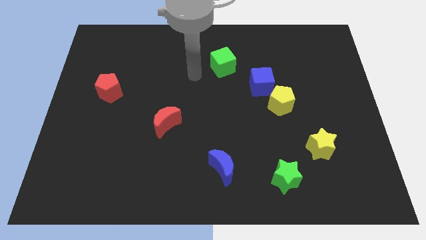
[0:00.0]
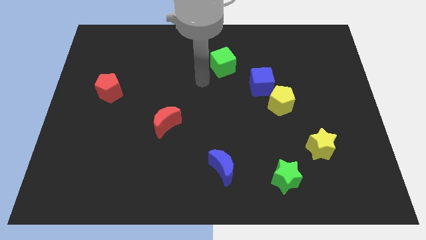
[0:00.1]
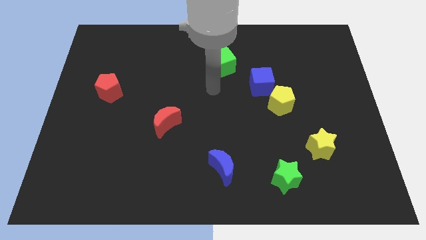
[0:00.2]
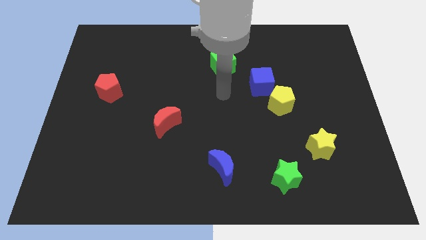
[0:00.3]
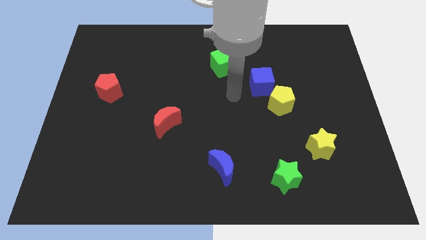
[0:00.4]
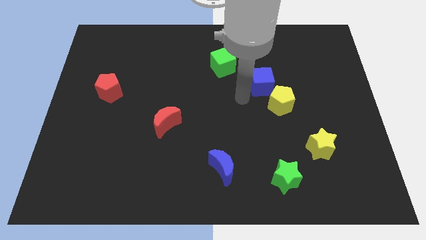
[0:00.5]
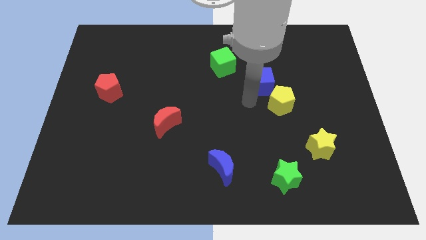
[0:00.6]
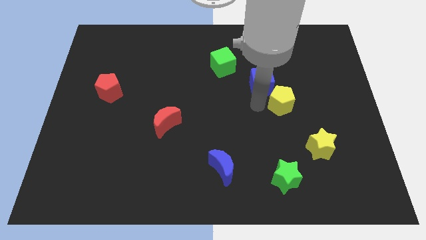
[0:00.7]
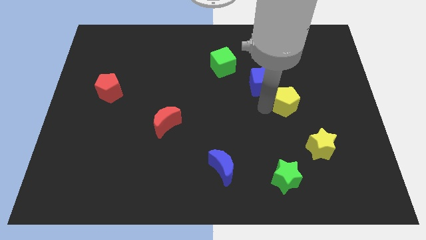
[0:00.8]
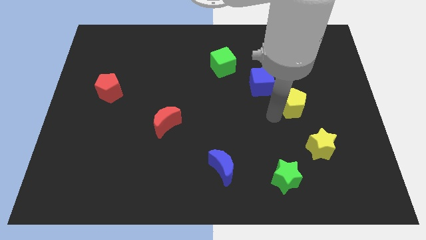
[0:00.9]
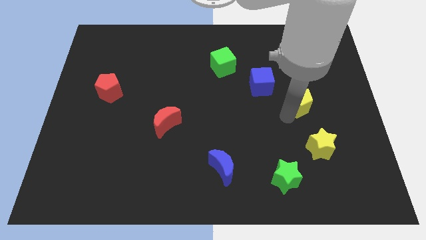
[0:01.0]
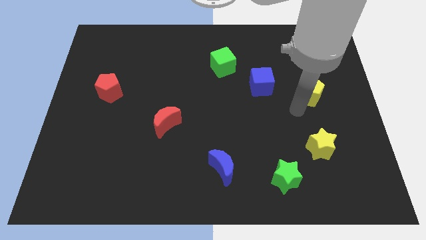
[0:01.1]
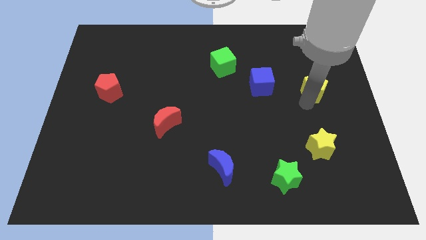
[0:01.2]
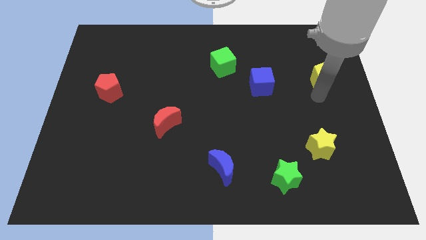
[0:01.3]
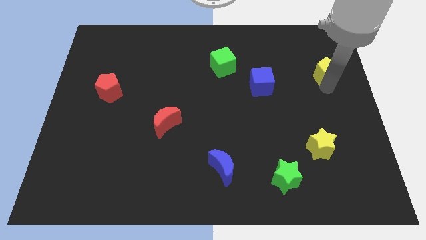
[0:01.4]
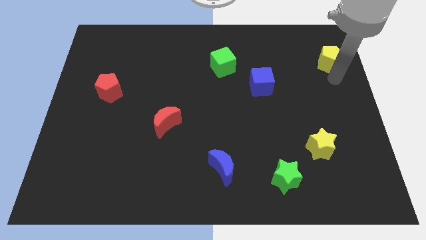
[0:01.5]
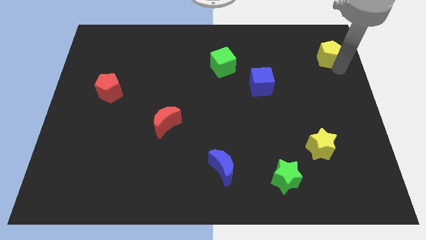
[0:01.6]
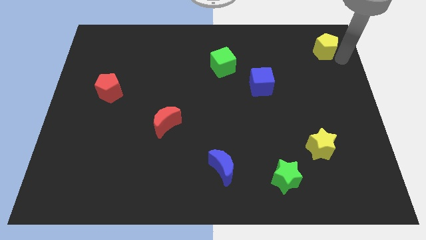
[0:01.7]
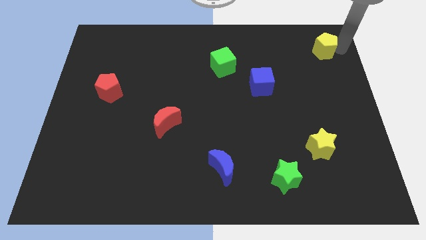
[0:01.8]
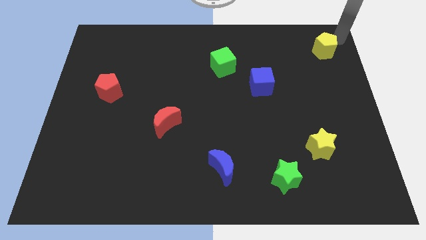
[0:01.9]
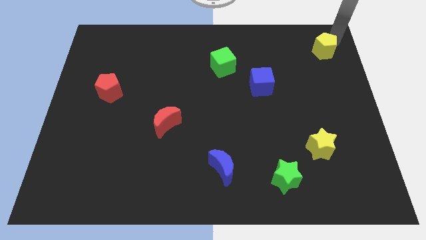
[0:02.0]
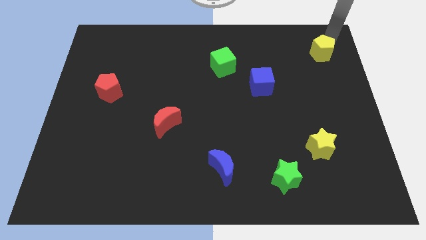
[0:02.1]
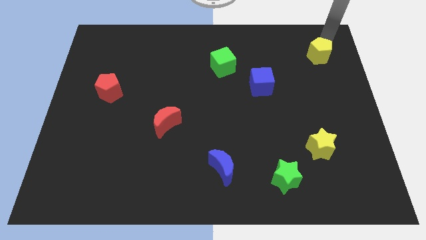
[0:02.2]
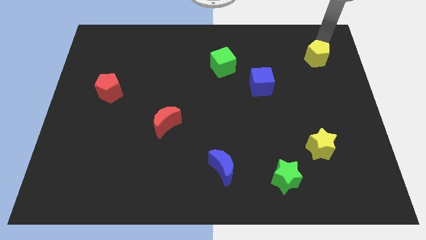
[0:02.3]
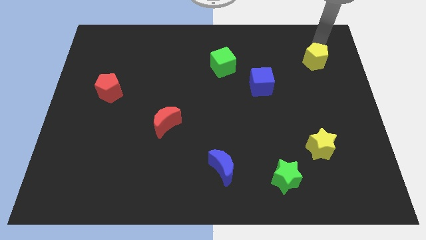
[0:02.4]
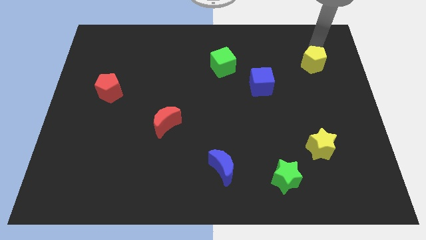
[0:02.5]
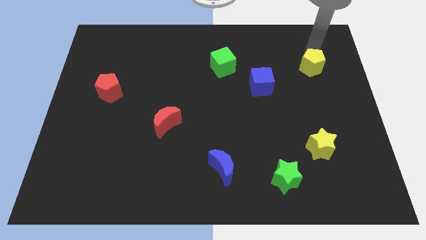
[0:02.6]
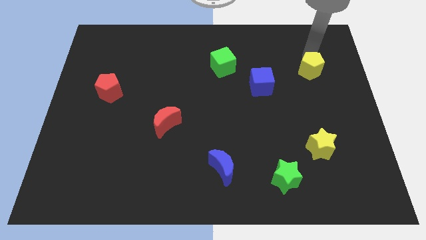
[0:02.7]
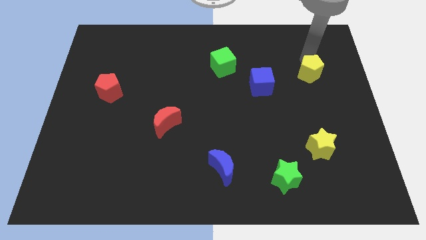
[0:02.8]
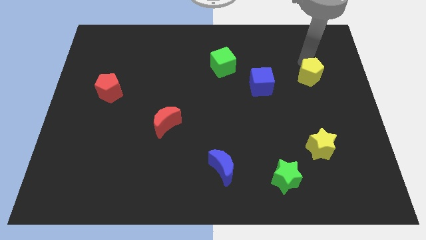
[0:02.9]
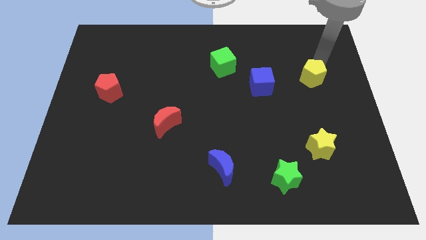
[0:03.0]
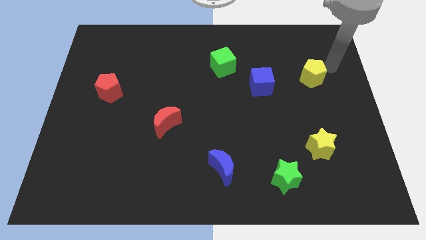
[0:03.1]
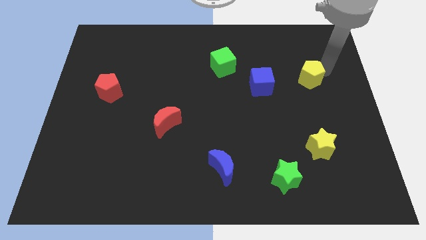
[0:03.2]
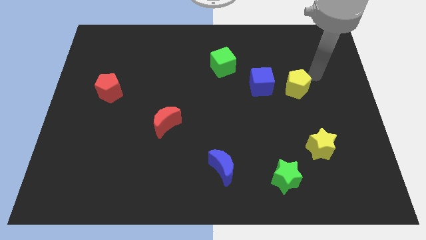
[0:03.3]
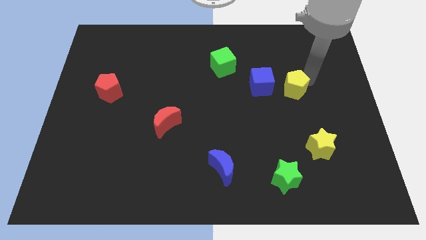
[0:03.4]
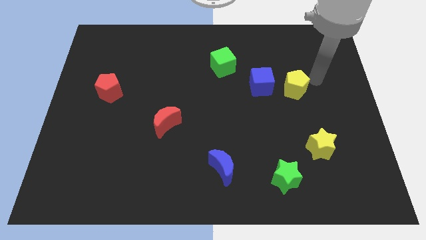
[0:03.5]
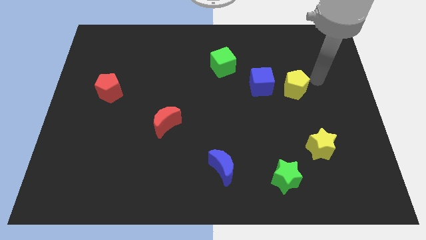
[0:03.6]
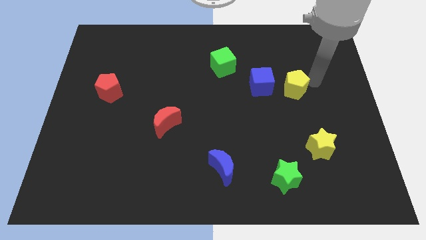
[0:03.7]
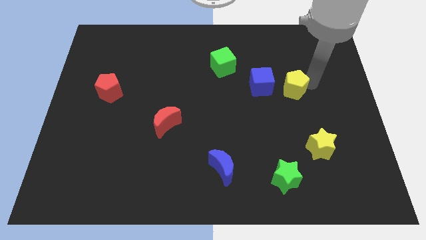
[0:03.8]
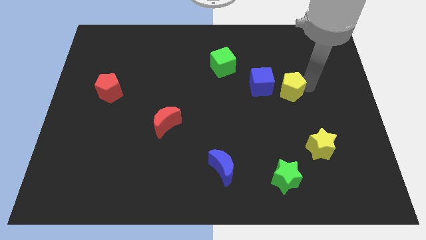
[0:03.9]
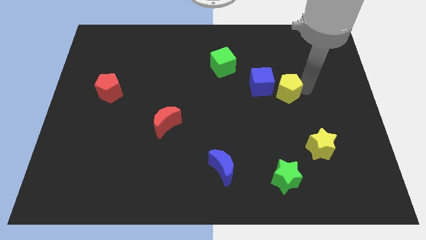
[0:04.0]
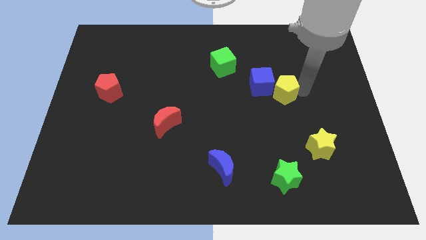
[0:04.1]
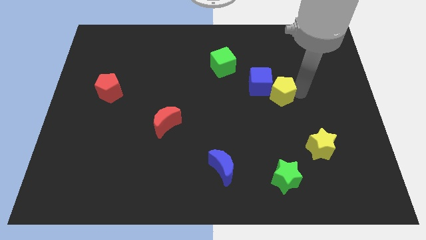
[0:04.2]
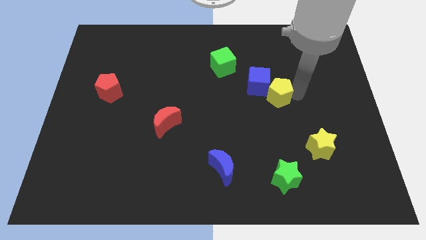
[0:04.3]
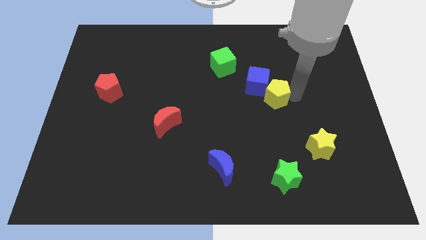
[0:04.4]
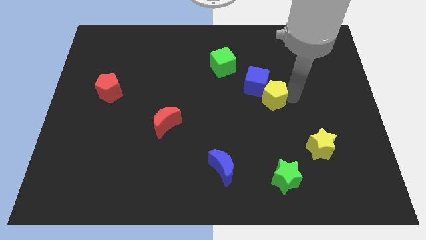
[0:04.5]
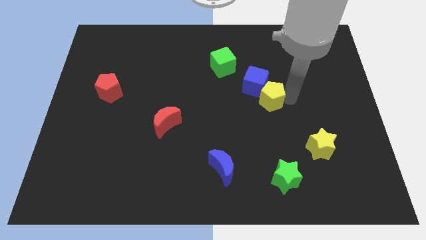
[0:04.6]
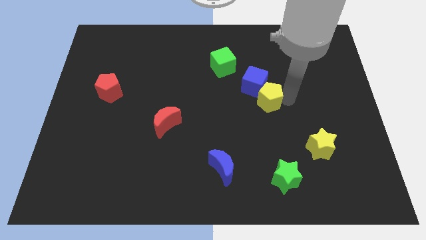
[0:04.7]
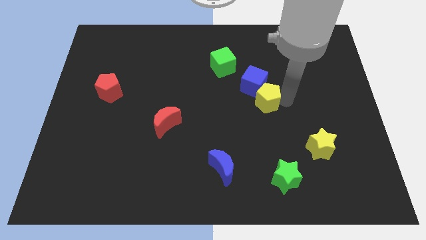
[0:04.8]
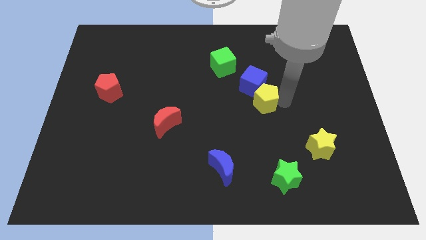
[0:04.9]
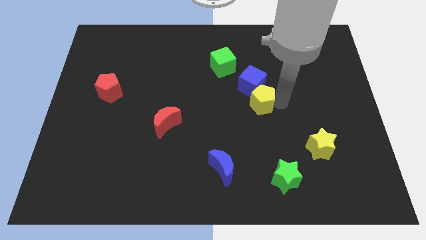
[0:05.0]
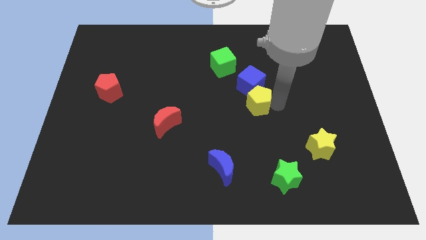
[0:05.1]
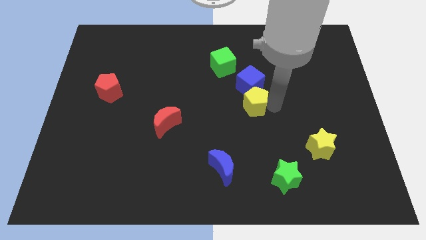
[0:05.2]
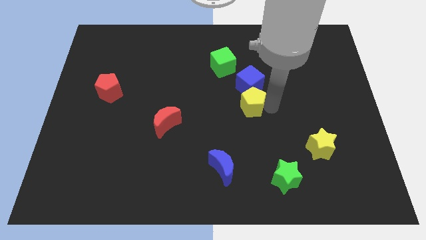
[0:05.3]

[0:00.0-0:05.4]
slightly slide the yellow pentagon left

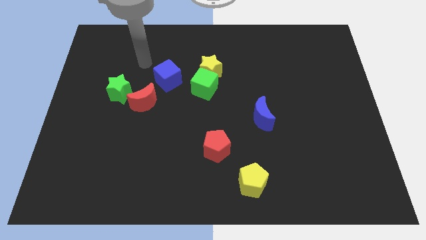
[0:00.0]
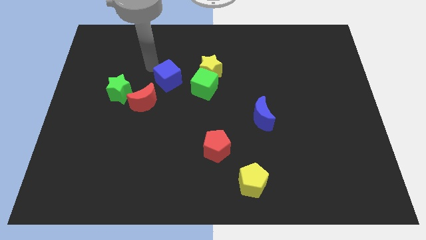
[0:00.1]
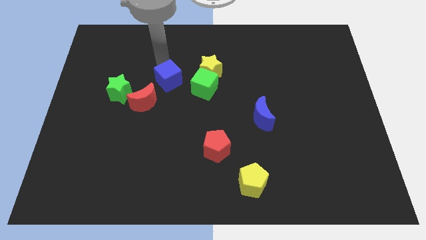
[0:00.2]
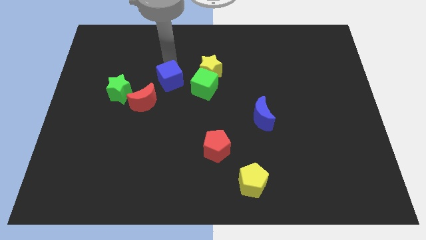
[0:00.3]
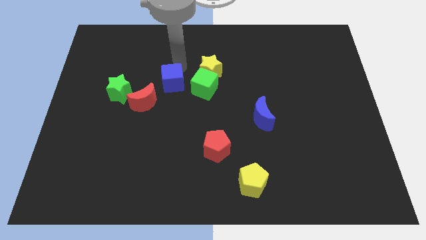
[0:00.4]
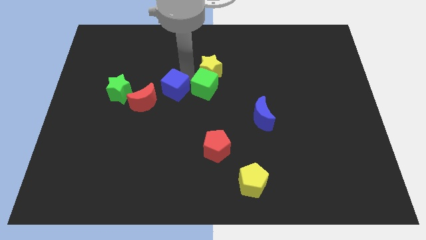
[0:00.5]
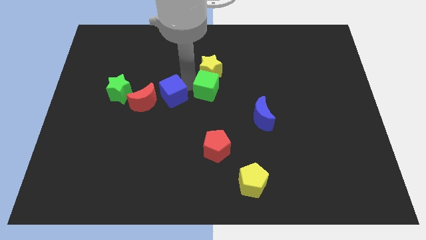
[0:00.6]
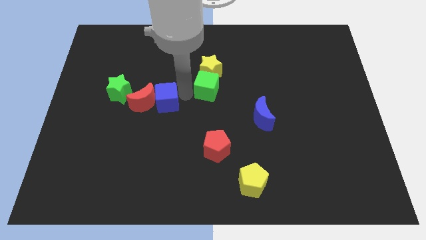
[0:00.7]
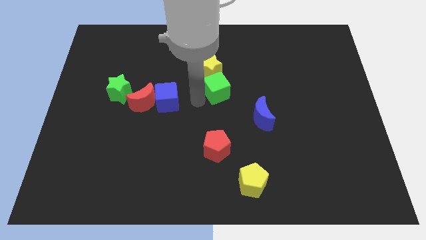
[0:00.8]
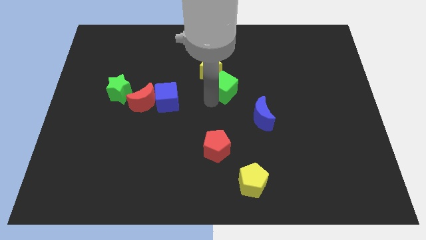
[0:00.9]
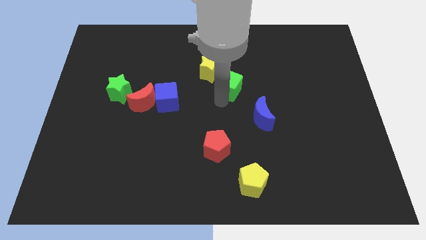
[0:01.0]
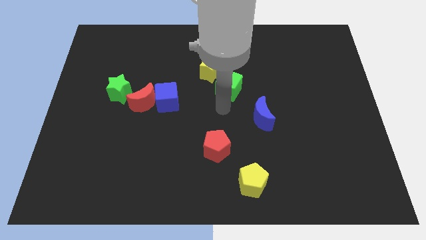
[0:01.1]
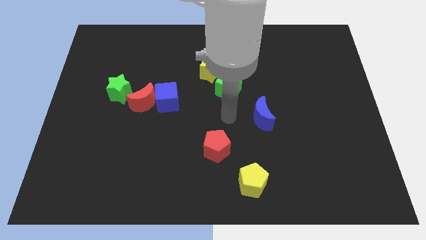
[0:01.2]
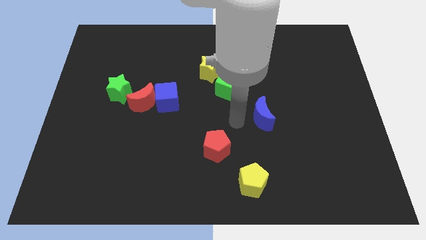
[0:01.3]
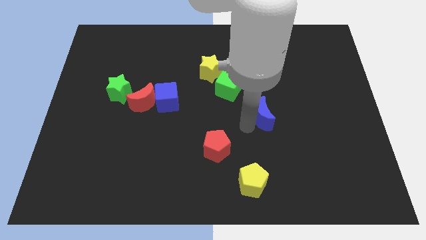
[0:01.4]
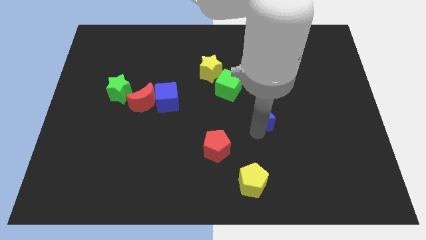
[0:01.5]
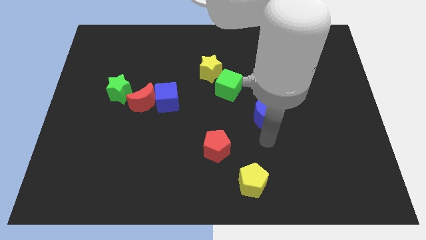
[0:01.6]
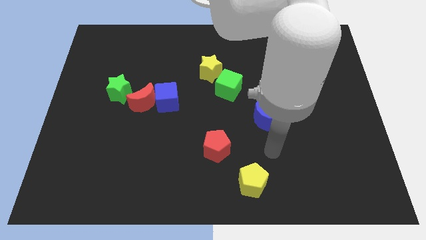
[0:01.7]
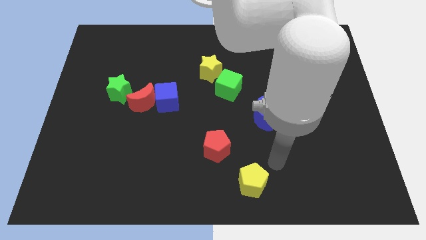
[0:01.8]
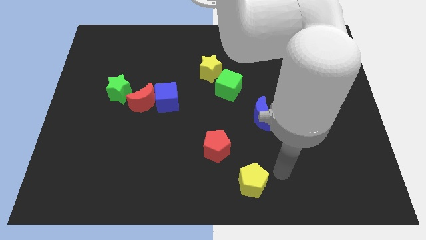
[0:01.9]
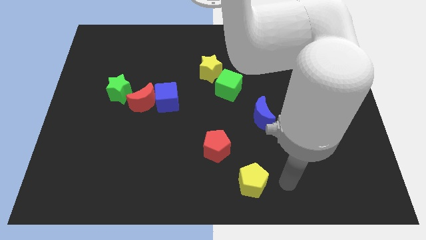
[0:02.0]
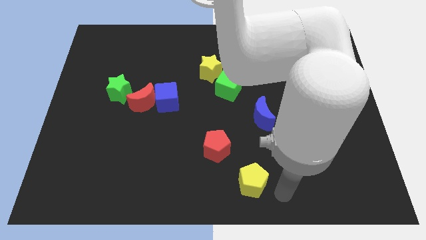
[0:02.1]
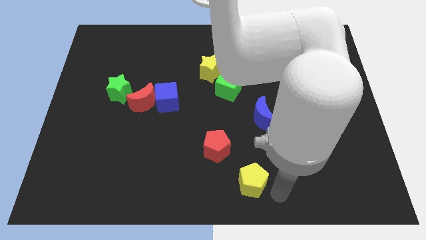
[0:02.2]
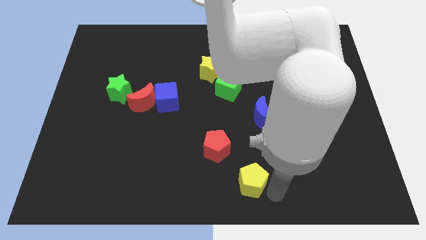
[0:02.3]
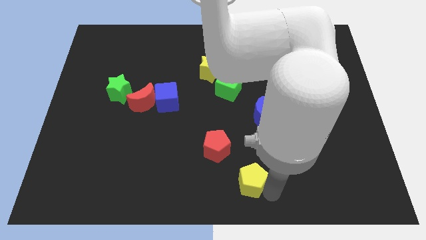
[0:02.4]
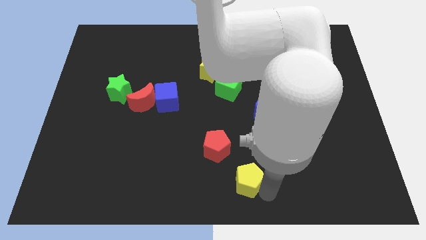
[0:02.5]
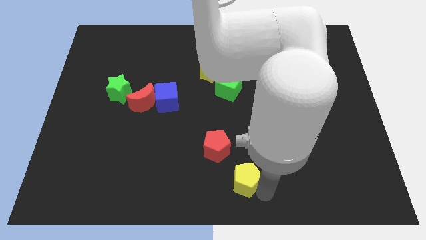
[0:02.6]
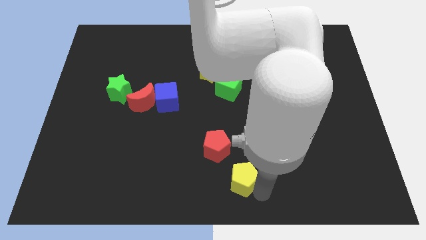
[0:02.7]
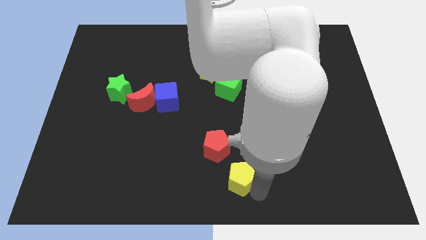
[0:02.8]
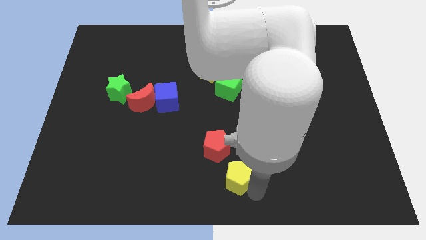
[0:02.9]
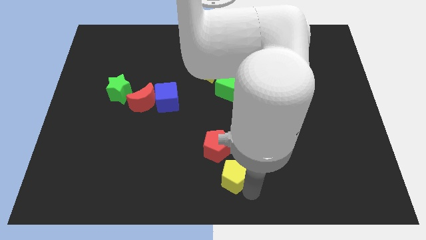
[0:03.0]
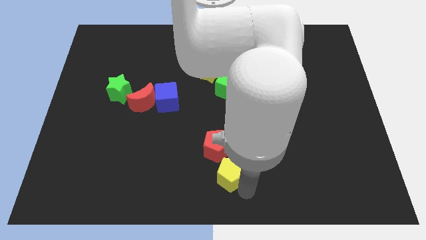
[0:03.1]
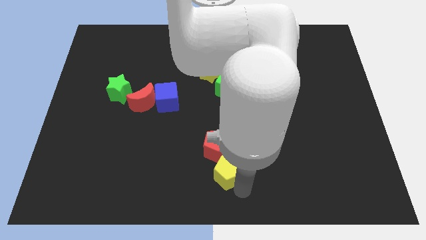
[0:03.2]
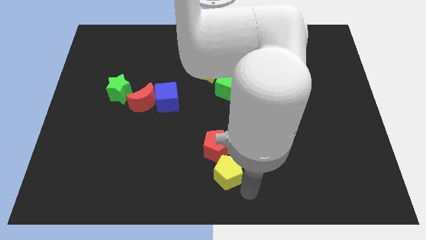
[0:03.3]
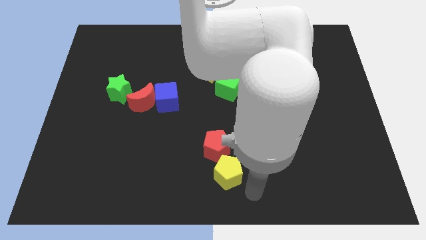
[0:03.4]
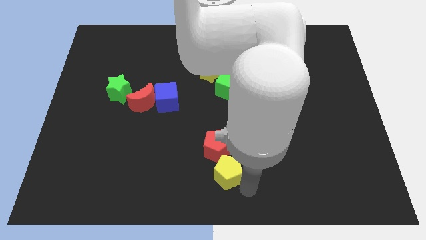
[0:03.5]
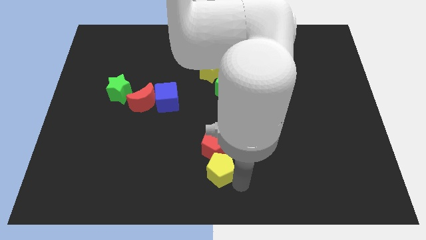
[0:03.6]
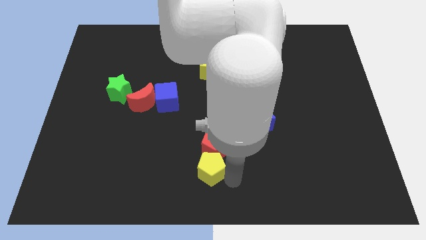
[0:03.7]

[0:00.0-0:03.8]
move the yellow pentagon upwards and then to the left a little bit
